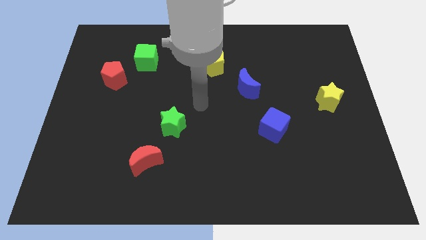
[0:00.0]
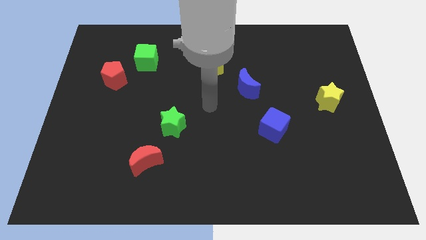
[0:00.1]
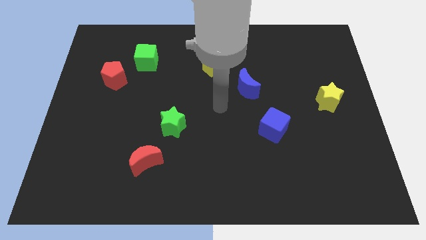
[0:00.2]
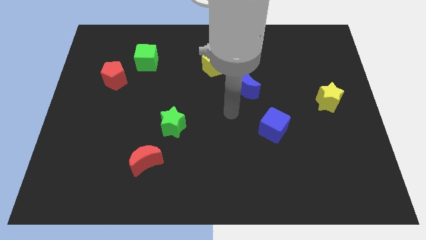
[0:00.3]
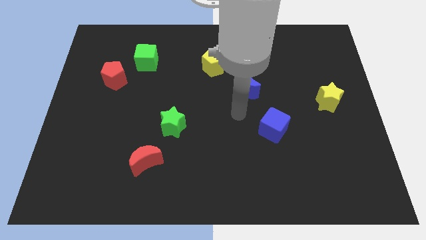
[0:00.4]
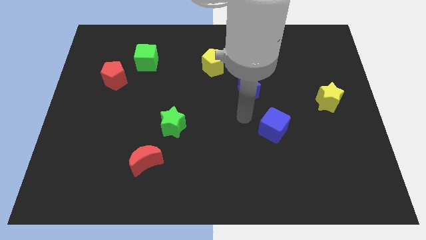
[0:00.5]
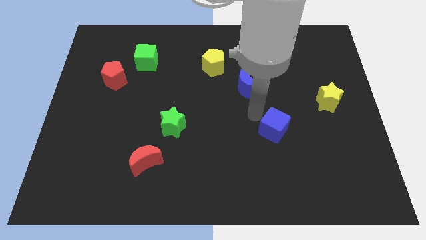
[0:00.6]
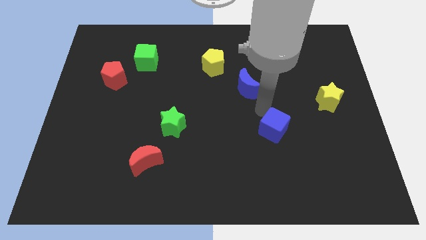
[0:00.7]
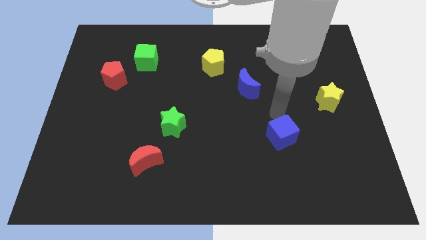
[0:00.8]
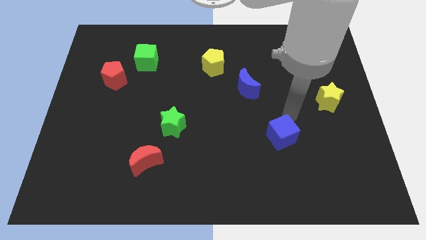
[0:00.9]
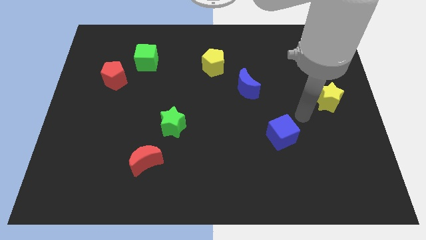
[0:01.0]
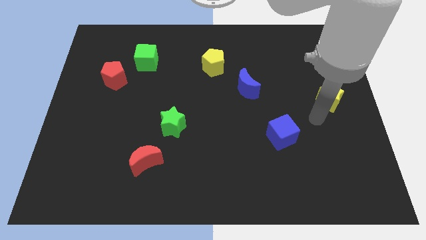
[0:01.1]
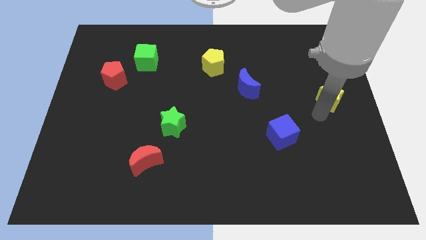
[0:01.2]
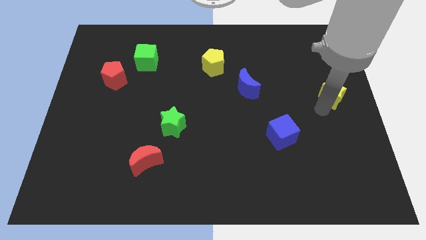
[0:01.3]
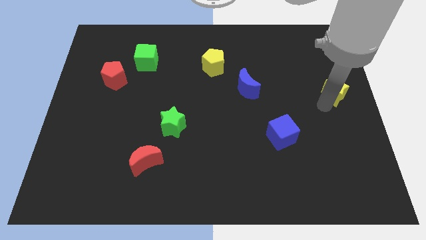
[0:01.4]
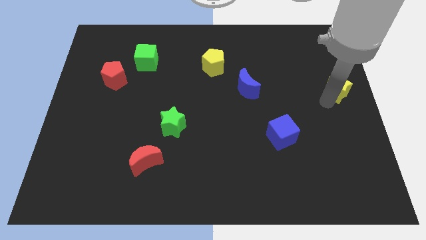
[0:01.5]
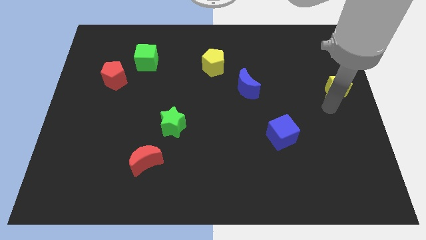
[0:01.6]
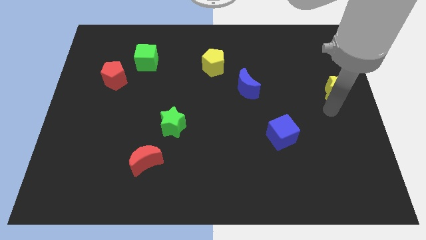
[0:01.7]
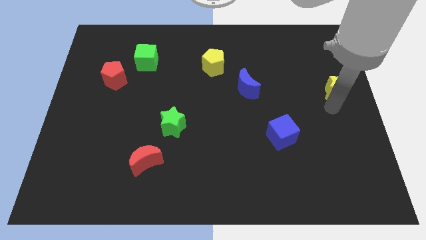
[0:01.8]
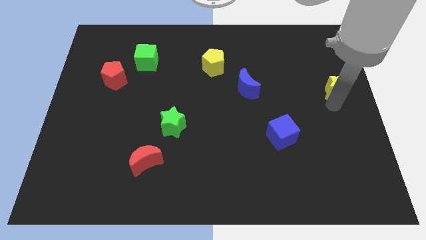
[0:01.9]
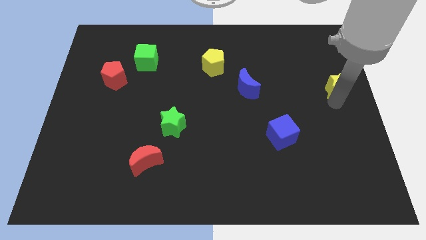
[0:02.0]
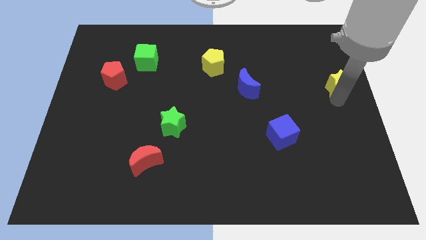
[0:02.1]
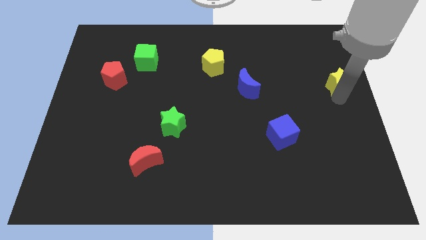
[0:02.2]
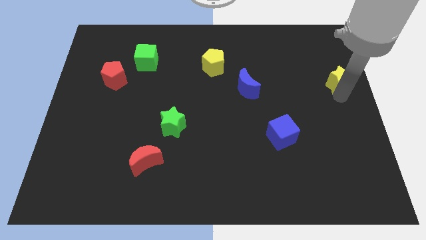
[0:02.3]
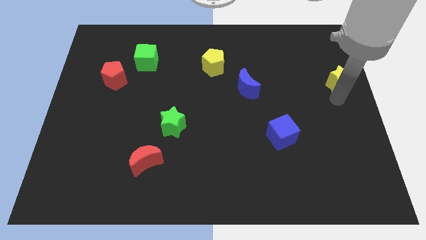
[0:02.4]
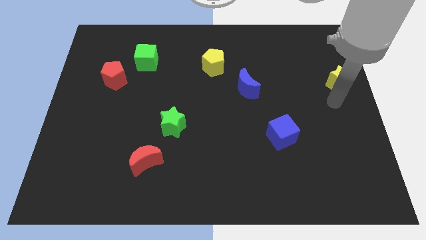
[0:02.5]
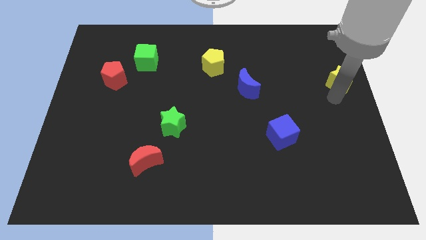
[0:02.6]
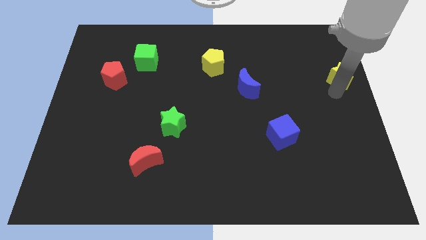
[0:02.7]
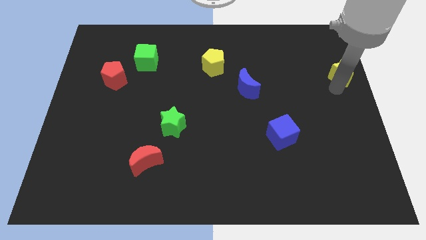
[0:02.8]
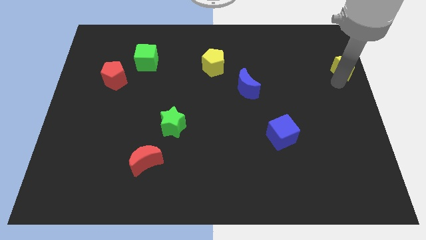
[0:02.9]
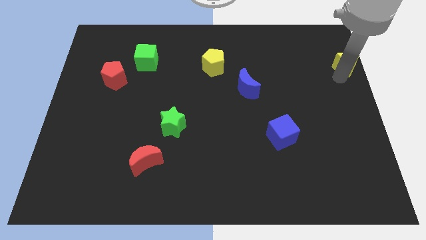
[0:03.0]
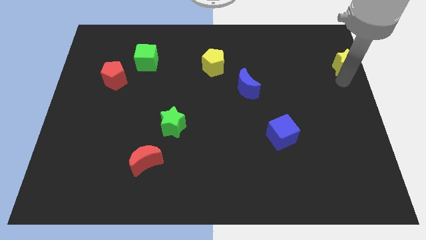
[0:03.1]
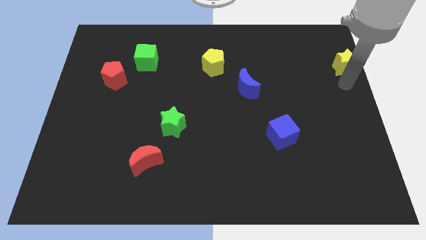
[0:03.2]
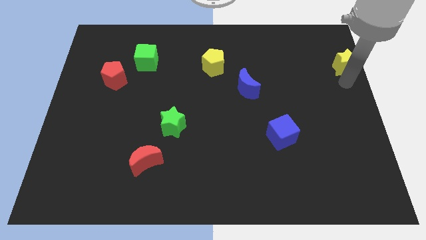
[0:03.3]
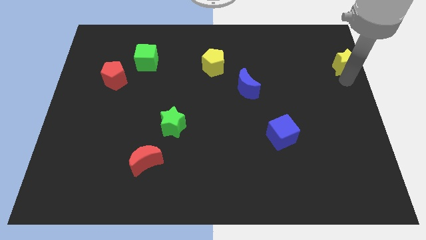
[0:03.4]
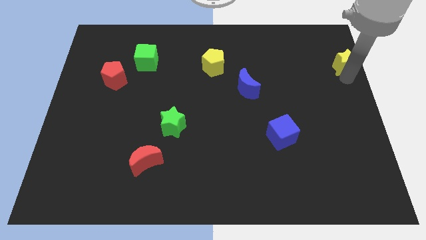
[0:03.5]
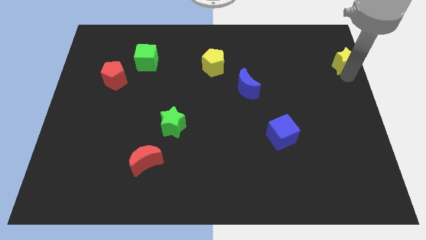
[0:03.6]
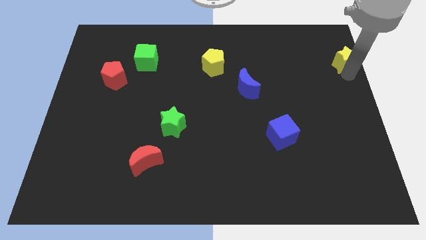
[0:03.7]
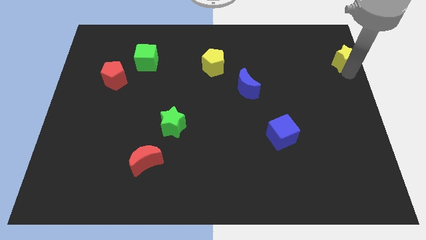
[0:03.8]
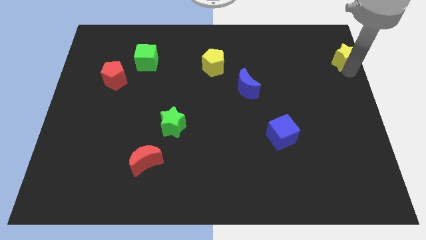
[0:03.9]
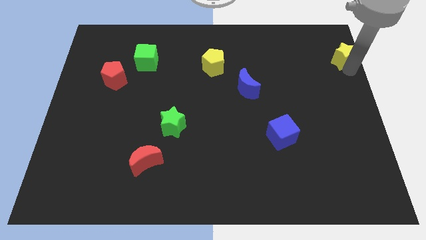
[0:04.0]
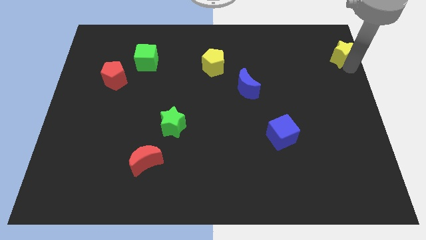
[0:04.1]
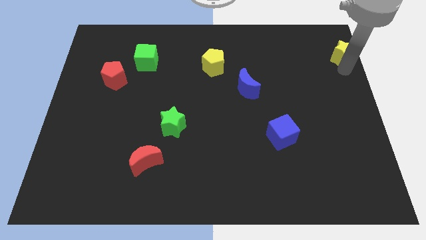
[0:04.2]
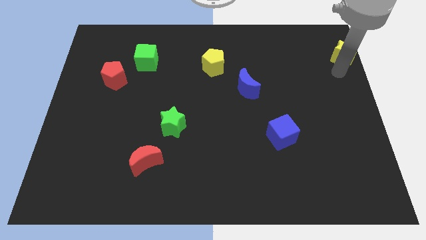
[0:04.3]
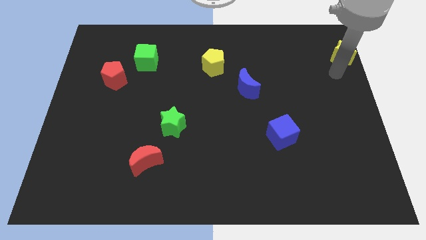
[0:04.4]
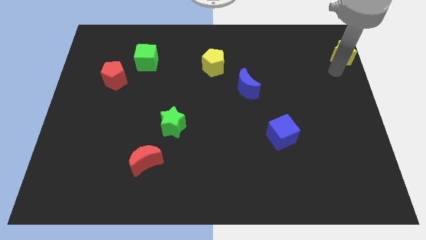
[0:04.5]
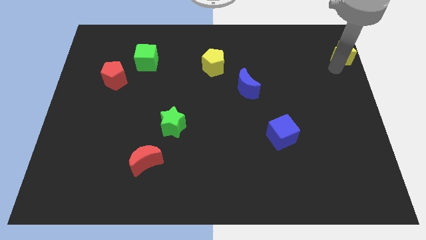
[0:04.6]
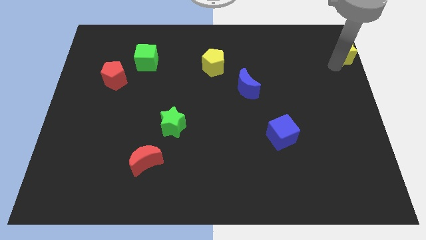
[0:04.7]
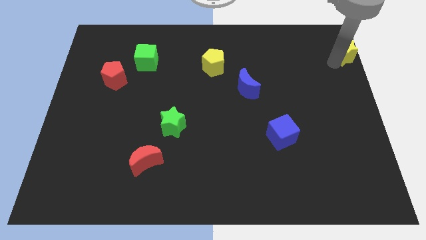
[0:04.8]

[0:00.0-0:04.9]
slide the yellow star to the upper right corner

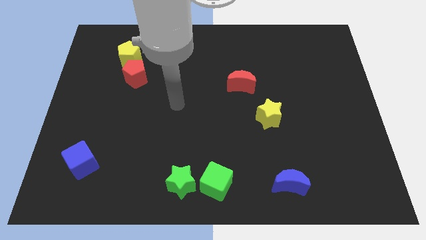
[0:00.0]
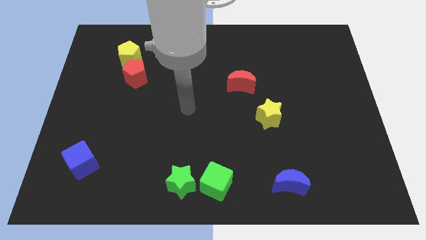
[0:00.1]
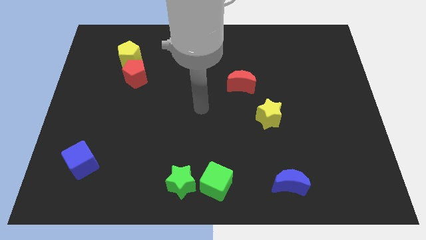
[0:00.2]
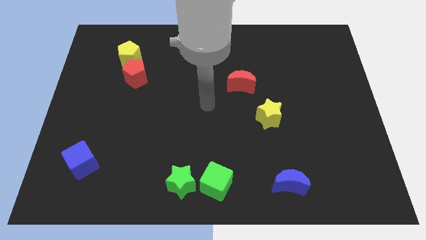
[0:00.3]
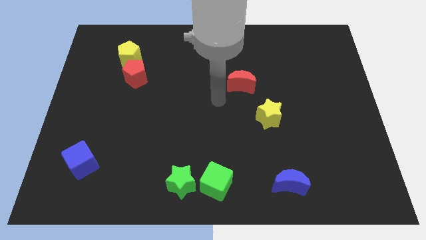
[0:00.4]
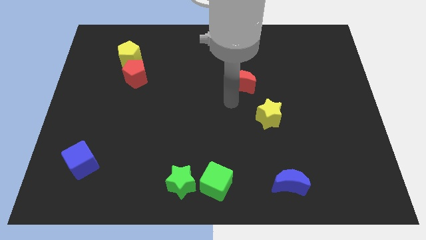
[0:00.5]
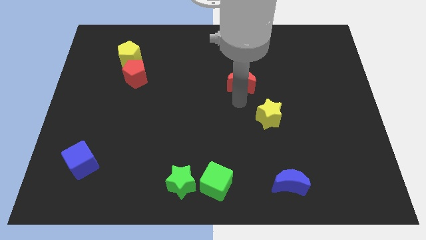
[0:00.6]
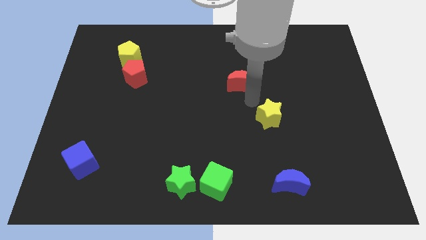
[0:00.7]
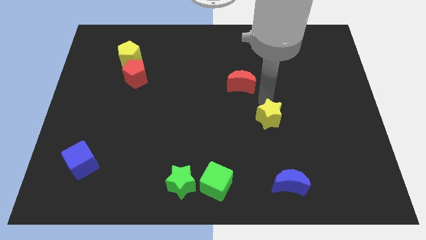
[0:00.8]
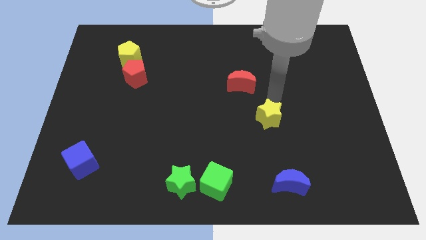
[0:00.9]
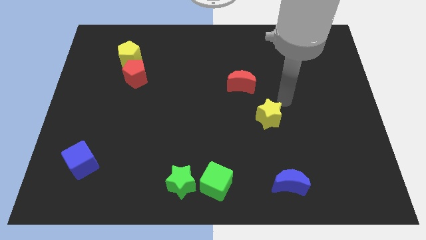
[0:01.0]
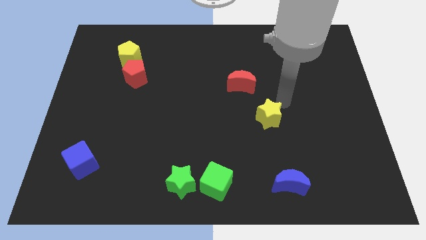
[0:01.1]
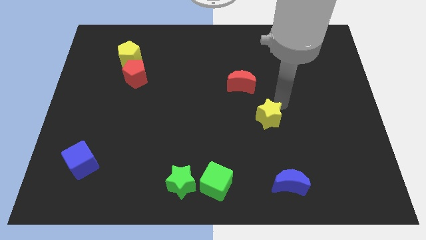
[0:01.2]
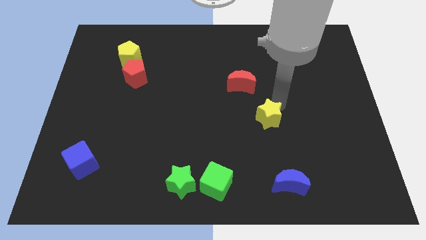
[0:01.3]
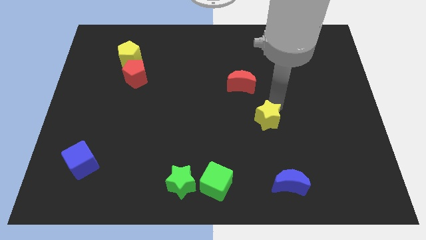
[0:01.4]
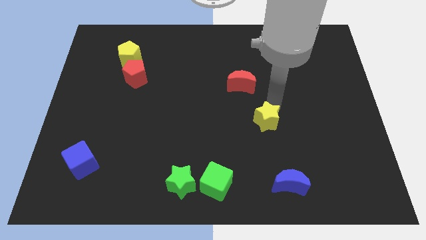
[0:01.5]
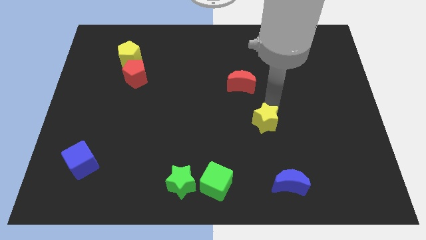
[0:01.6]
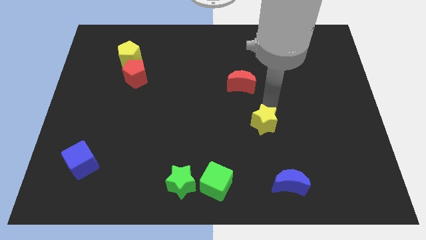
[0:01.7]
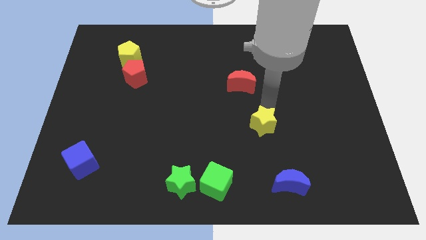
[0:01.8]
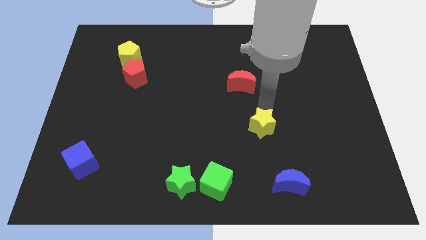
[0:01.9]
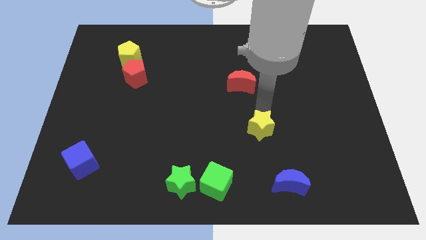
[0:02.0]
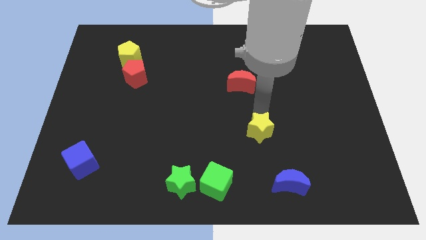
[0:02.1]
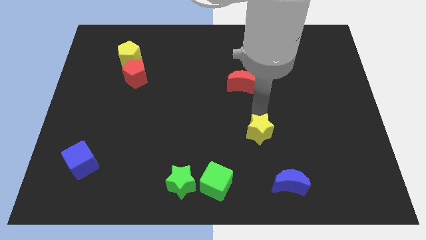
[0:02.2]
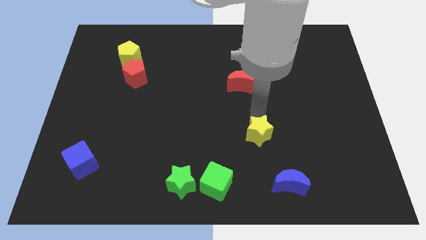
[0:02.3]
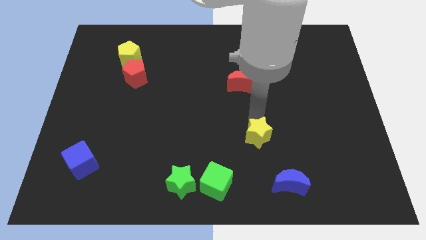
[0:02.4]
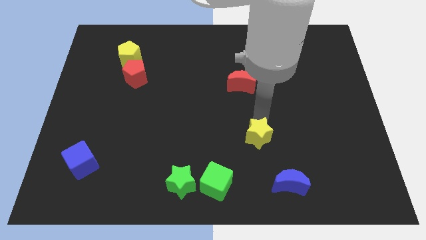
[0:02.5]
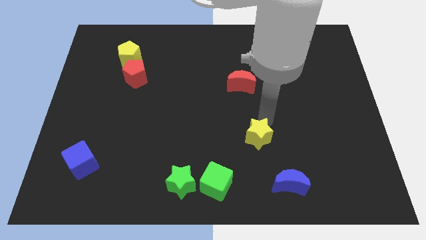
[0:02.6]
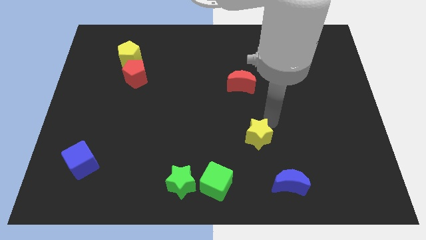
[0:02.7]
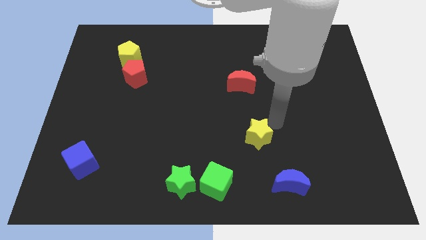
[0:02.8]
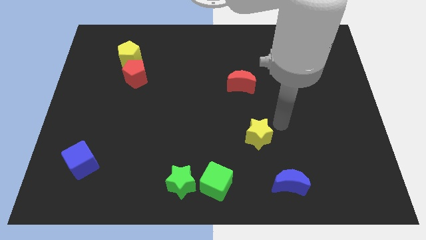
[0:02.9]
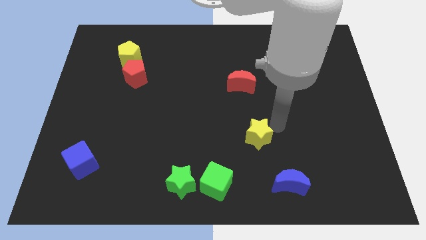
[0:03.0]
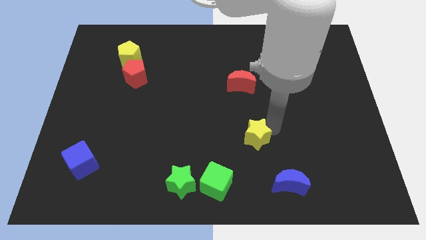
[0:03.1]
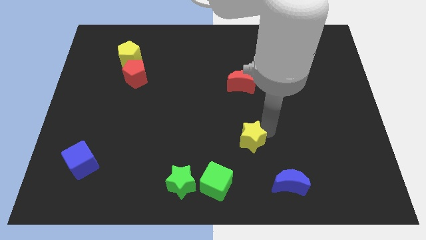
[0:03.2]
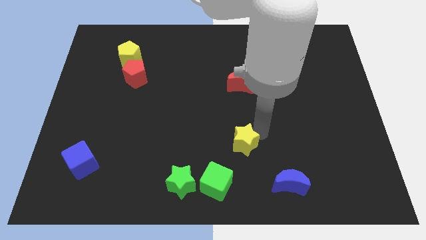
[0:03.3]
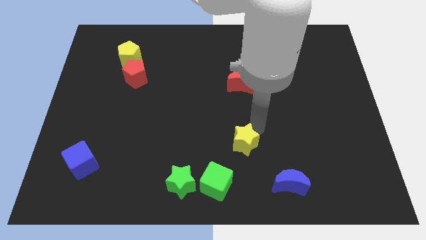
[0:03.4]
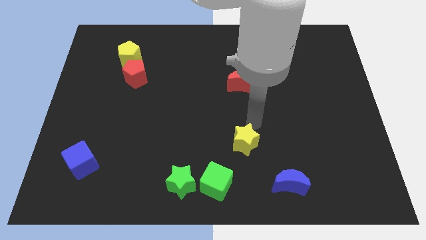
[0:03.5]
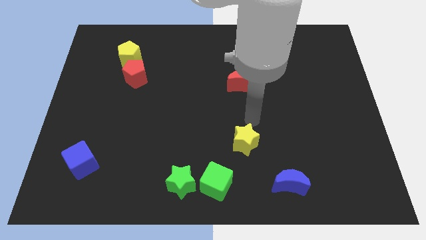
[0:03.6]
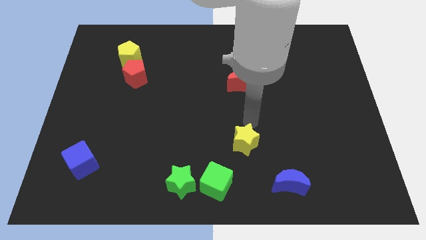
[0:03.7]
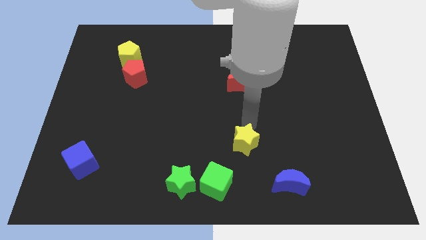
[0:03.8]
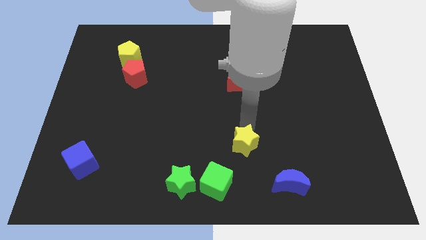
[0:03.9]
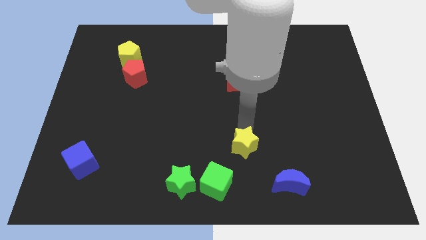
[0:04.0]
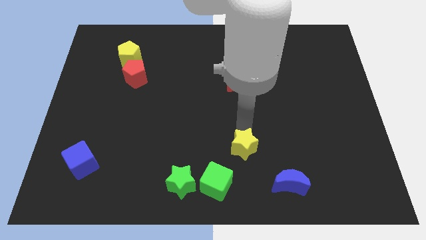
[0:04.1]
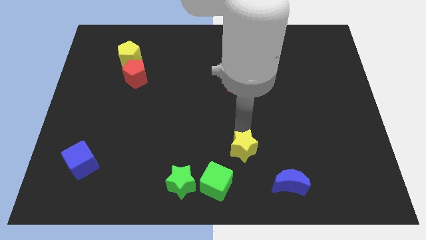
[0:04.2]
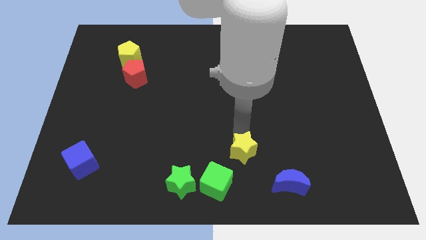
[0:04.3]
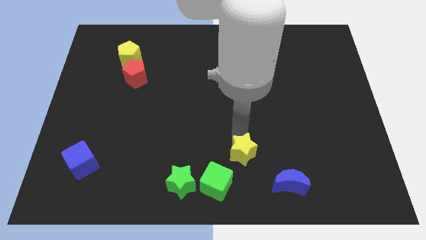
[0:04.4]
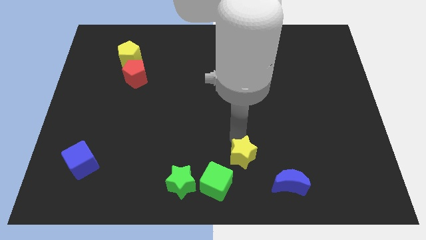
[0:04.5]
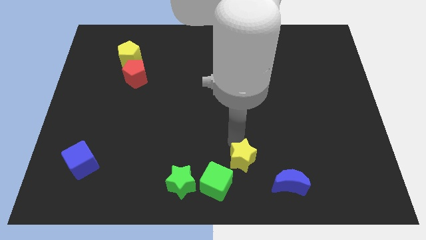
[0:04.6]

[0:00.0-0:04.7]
push the yellow star to the bottom
